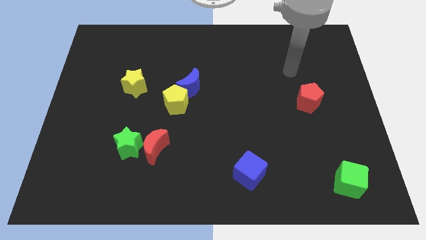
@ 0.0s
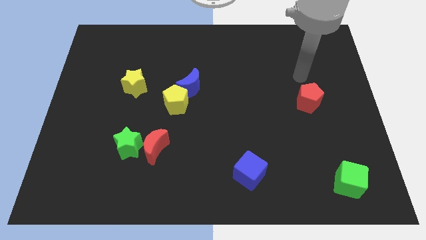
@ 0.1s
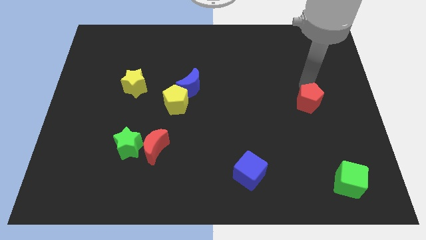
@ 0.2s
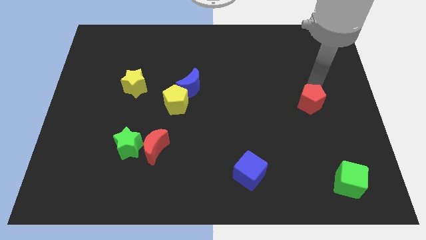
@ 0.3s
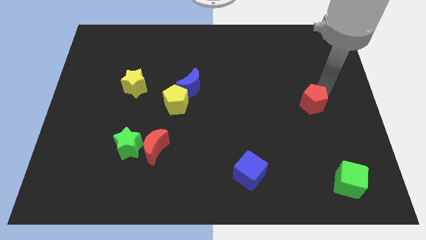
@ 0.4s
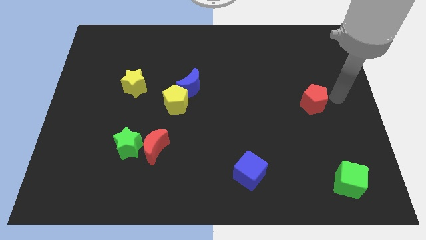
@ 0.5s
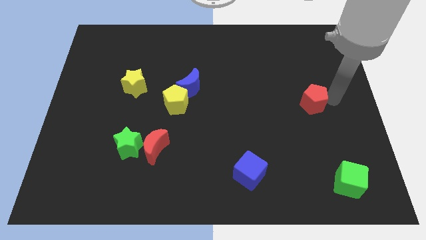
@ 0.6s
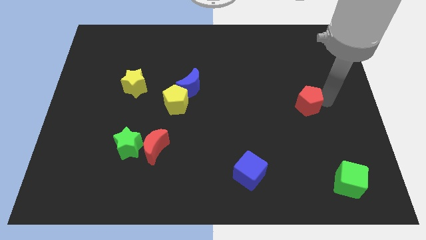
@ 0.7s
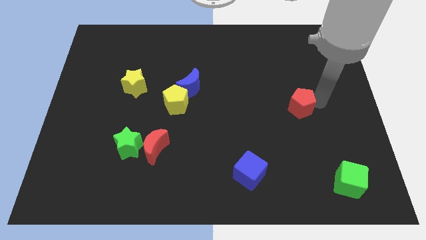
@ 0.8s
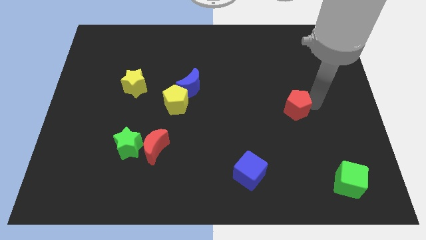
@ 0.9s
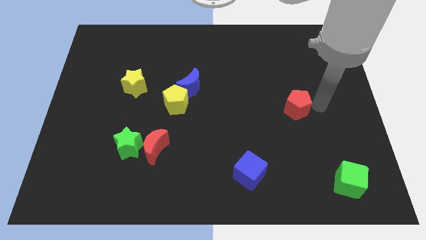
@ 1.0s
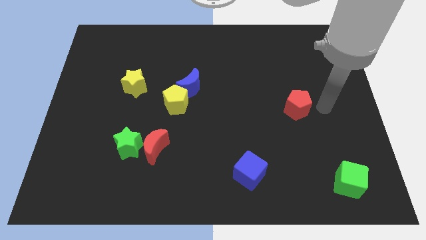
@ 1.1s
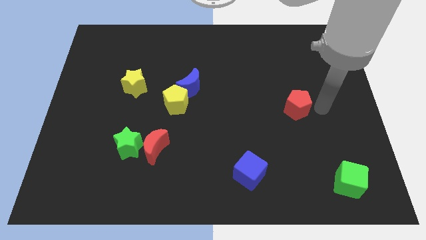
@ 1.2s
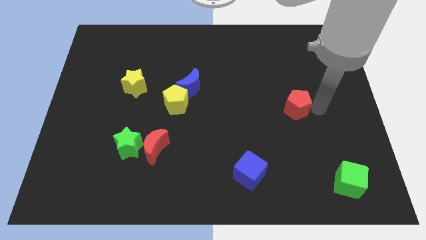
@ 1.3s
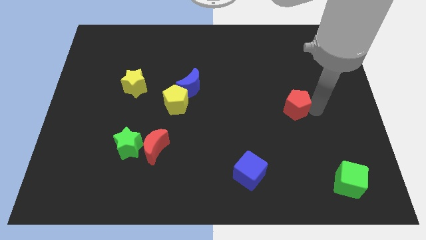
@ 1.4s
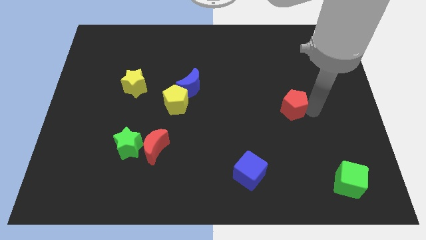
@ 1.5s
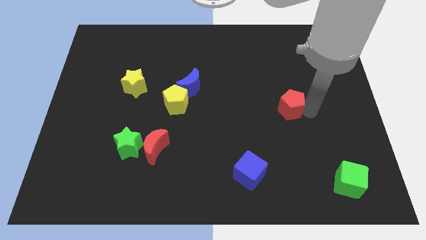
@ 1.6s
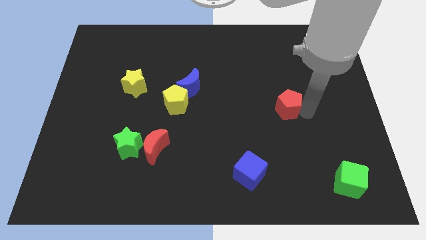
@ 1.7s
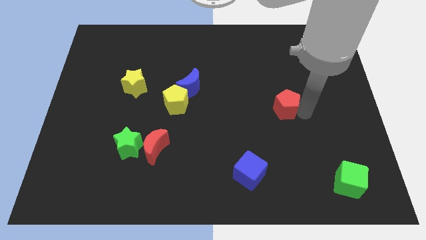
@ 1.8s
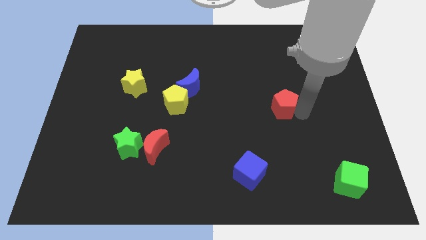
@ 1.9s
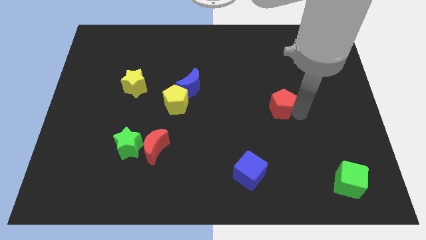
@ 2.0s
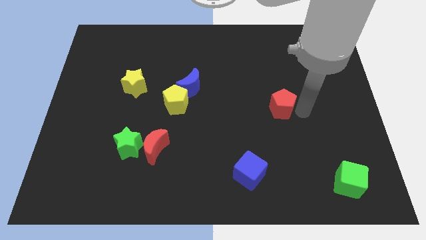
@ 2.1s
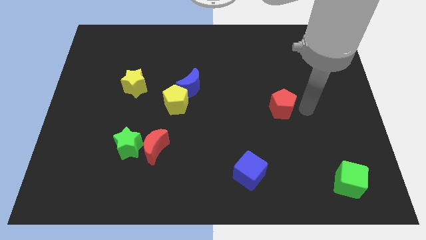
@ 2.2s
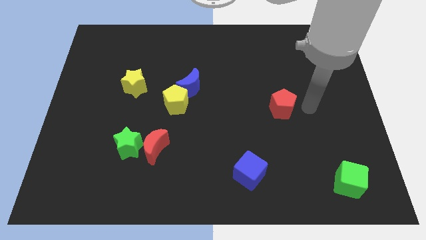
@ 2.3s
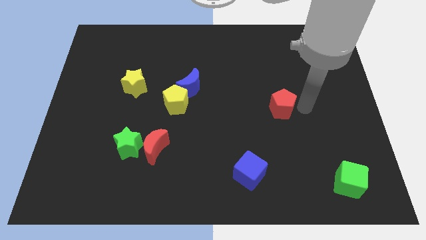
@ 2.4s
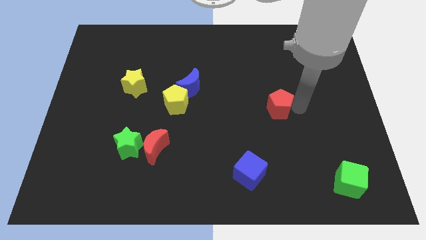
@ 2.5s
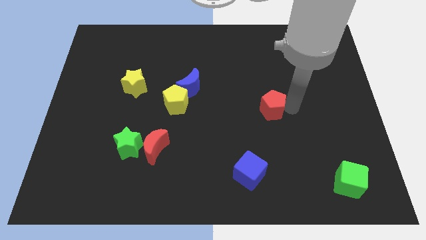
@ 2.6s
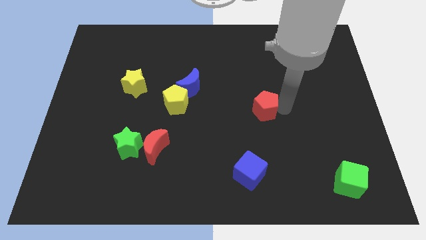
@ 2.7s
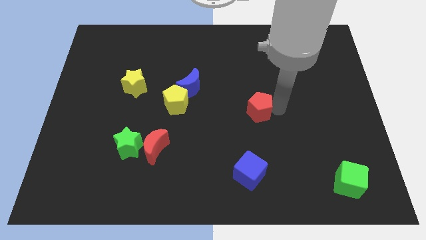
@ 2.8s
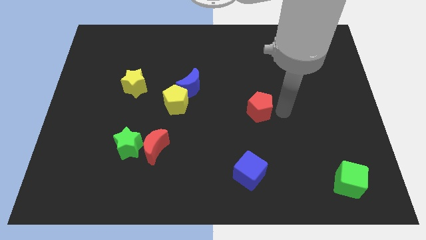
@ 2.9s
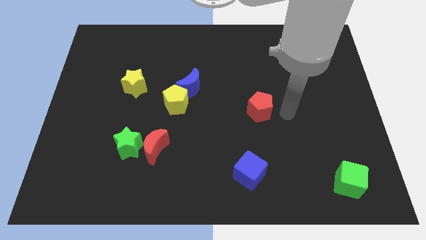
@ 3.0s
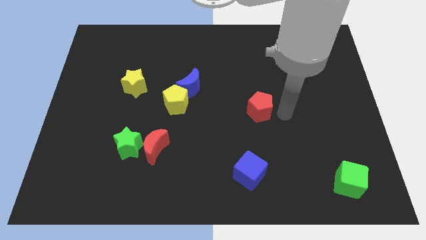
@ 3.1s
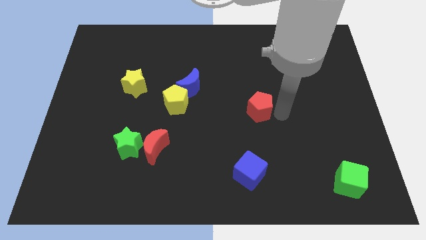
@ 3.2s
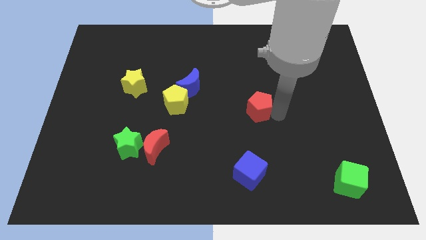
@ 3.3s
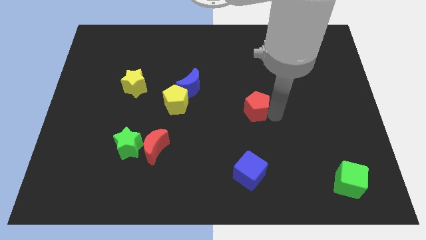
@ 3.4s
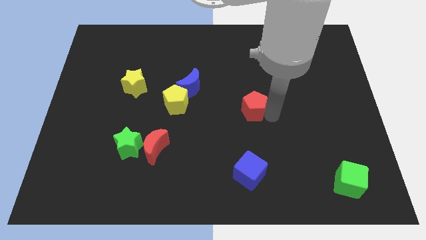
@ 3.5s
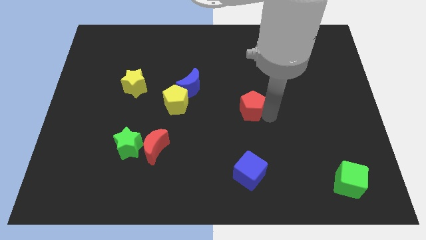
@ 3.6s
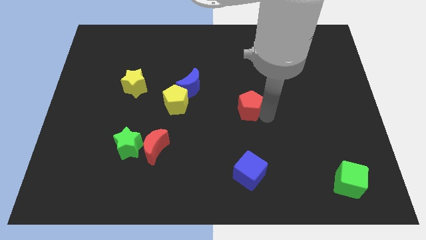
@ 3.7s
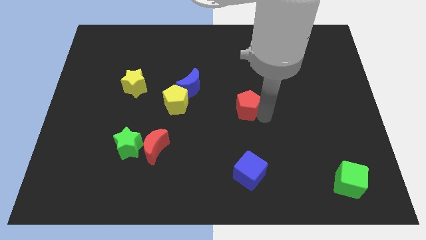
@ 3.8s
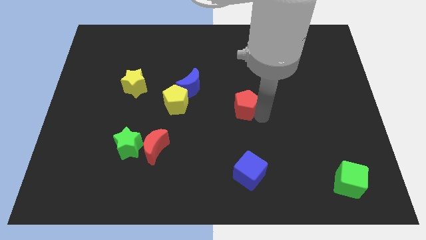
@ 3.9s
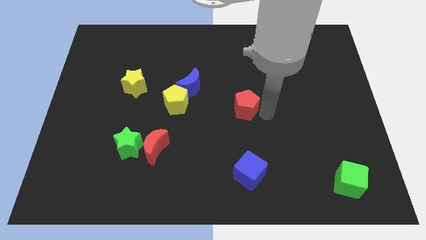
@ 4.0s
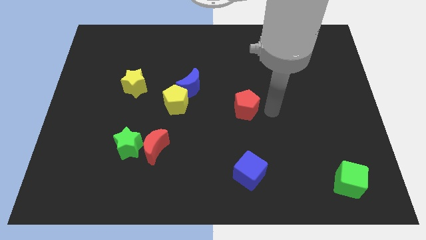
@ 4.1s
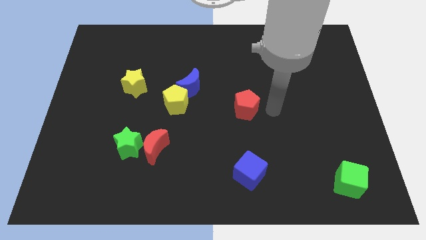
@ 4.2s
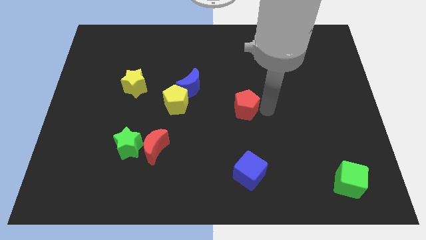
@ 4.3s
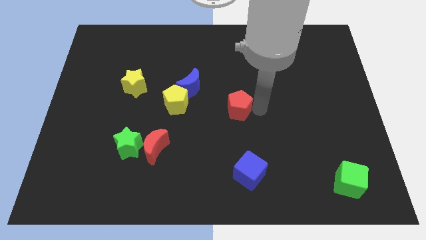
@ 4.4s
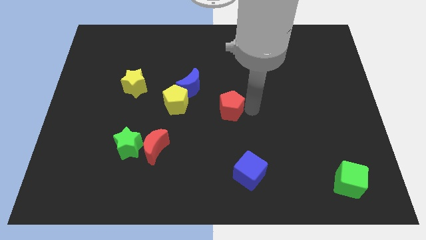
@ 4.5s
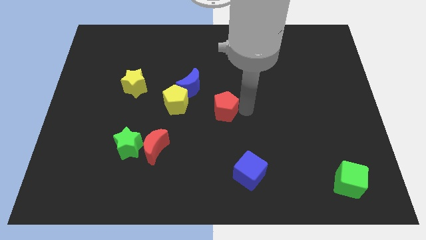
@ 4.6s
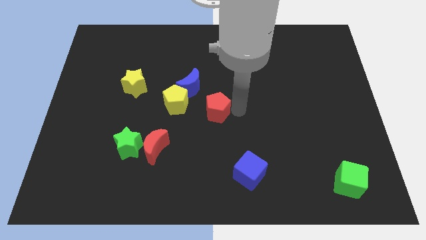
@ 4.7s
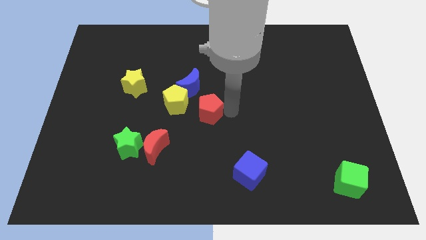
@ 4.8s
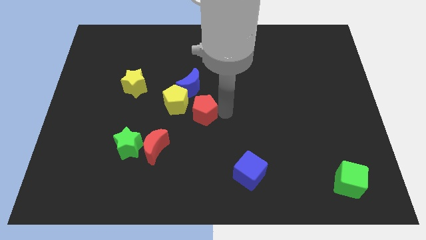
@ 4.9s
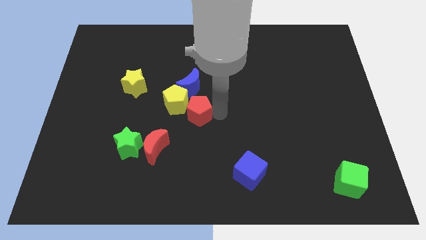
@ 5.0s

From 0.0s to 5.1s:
move the red pentagon towards the yellow pentagon

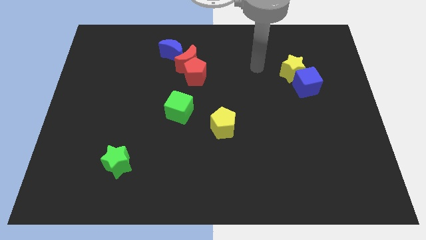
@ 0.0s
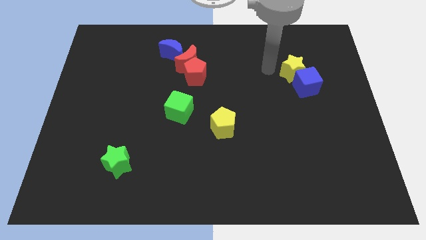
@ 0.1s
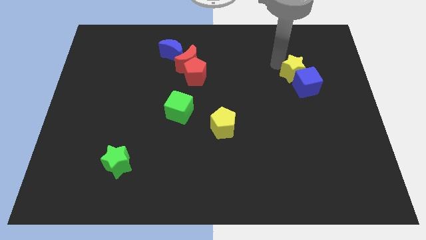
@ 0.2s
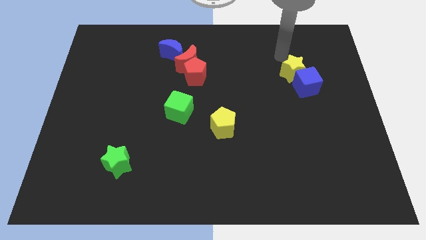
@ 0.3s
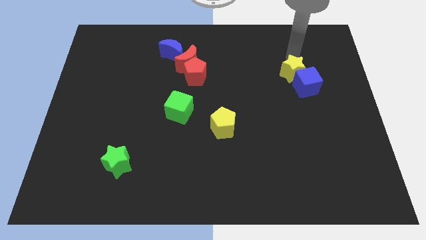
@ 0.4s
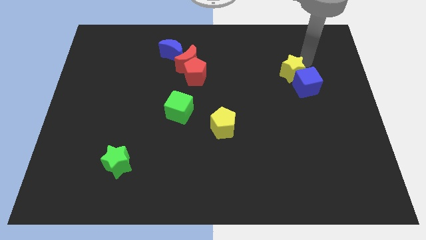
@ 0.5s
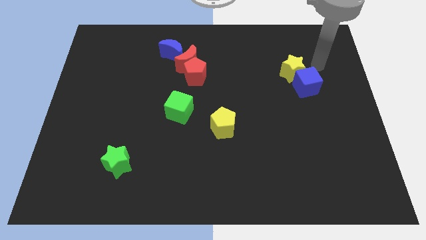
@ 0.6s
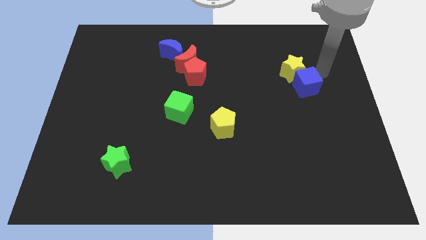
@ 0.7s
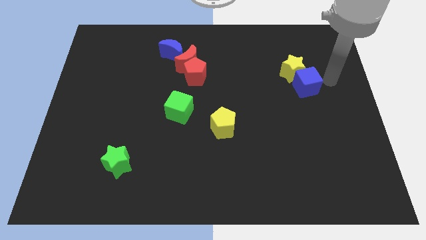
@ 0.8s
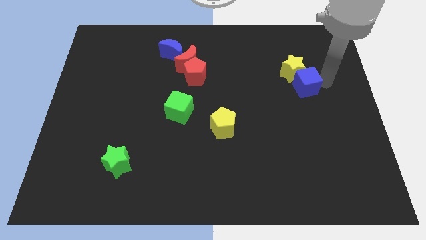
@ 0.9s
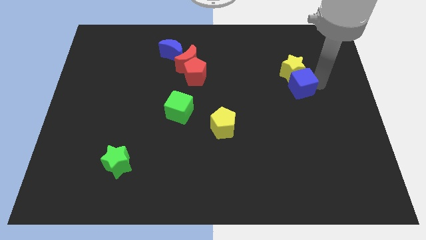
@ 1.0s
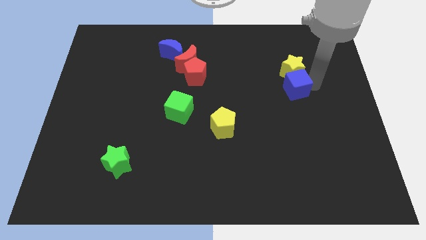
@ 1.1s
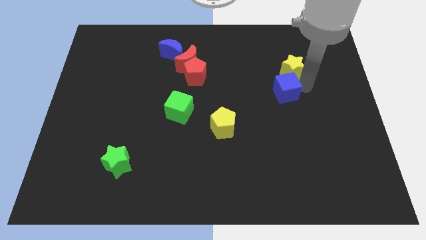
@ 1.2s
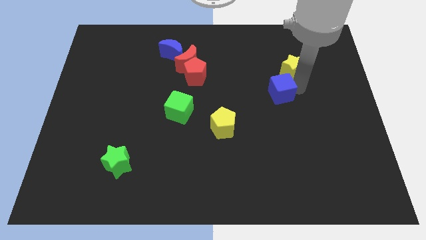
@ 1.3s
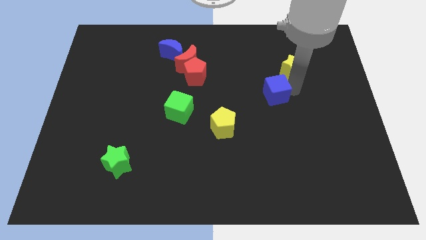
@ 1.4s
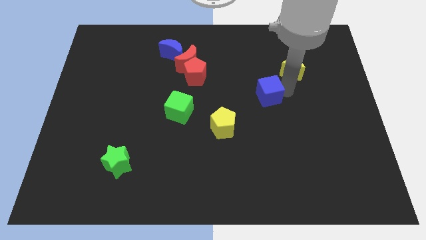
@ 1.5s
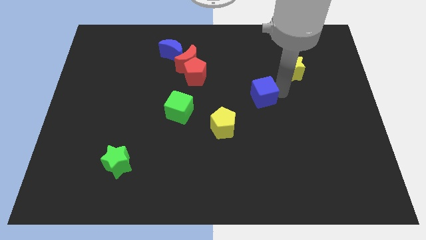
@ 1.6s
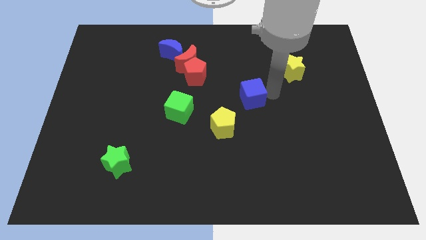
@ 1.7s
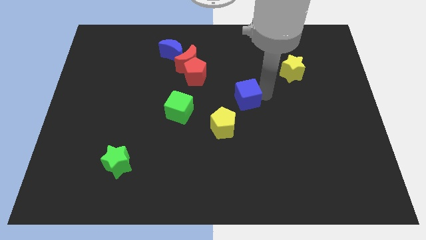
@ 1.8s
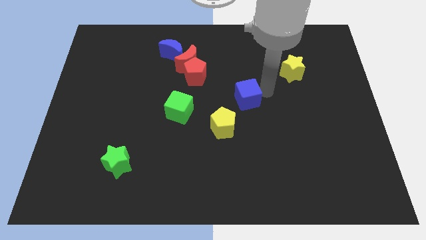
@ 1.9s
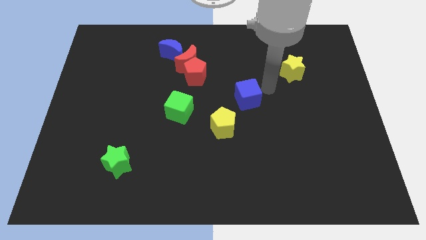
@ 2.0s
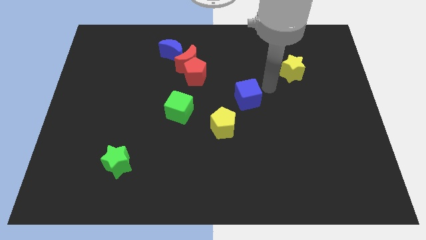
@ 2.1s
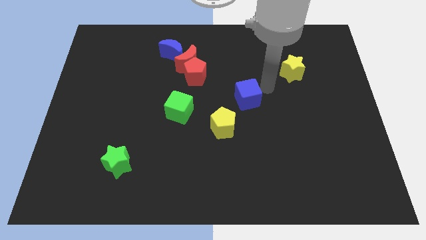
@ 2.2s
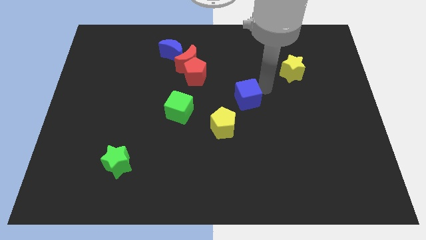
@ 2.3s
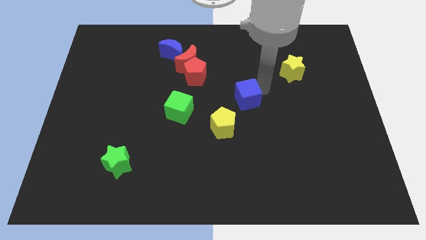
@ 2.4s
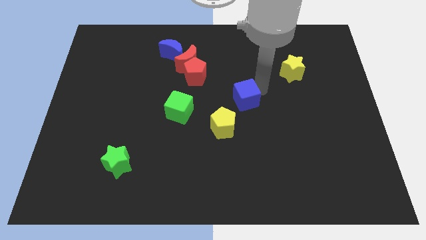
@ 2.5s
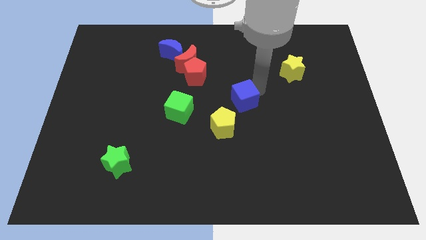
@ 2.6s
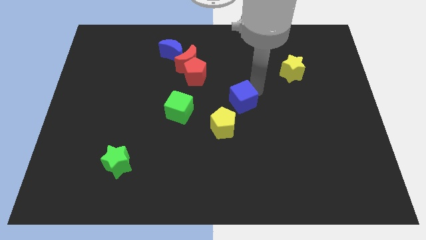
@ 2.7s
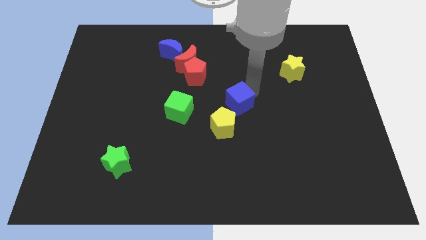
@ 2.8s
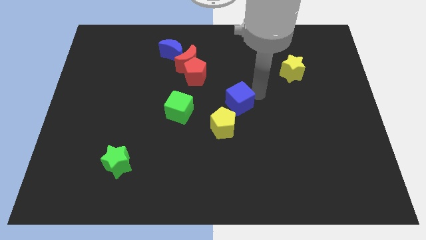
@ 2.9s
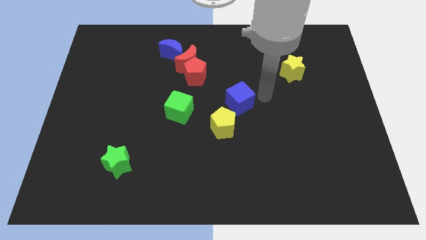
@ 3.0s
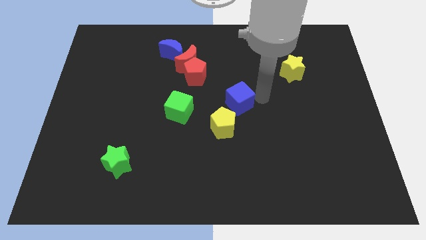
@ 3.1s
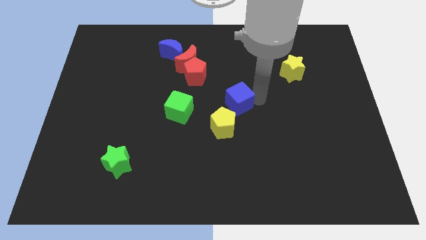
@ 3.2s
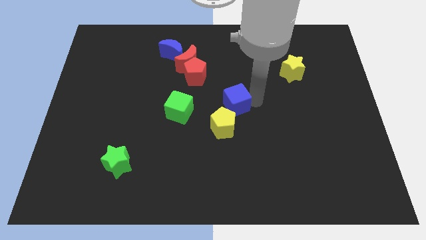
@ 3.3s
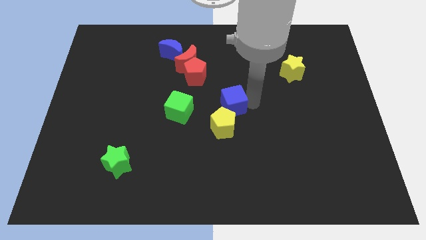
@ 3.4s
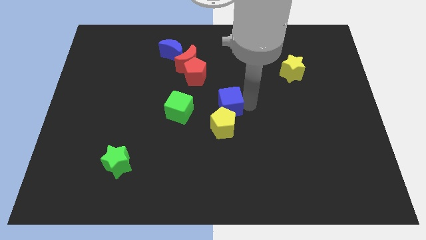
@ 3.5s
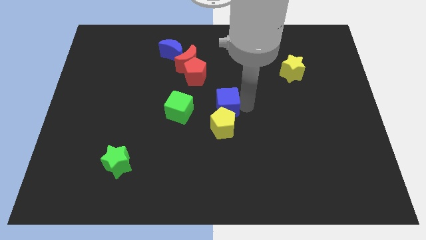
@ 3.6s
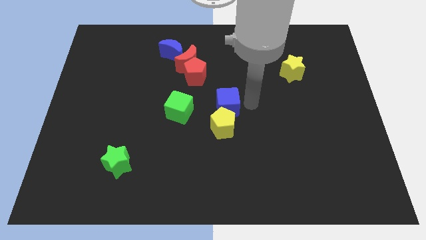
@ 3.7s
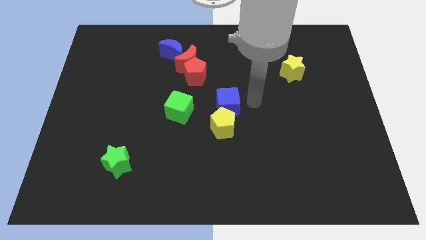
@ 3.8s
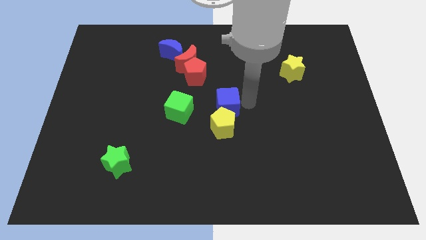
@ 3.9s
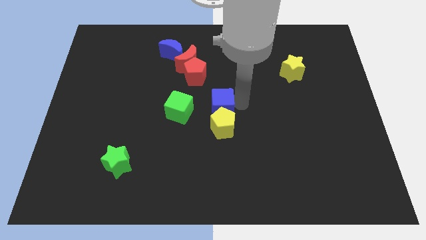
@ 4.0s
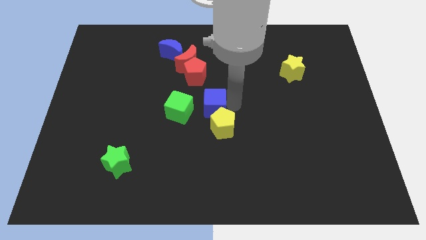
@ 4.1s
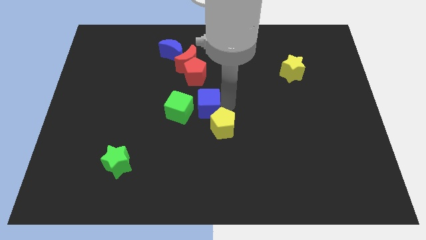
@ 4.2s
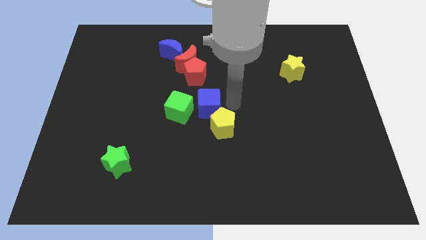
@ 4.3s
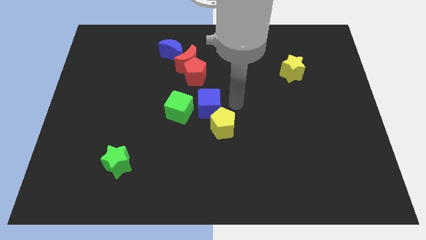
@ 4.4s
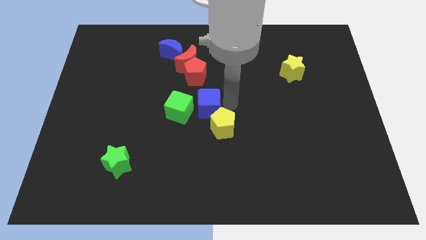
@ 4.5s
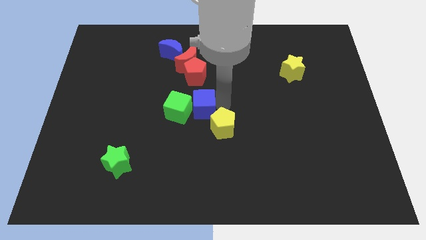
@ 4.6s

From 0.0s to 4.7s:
move the blue cube next to the green cube
